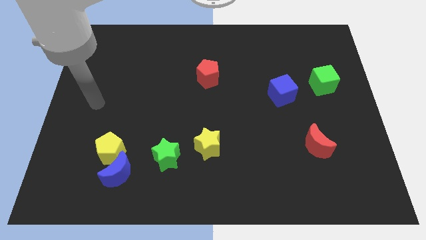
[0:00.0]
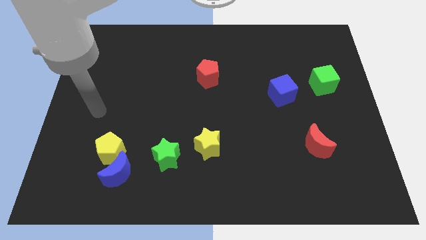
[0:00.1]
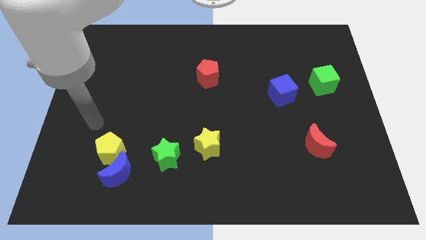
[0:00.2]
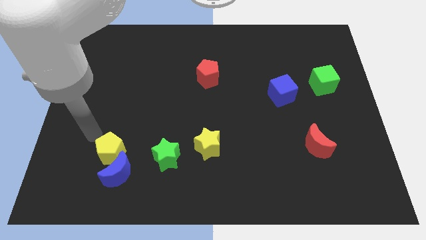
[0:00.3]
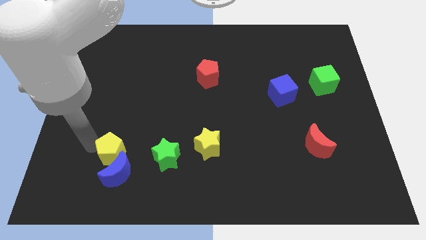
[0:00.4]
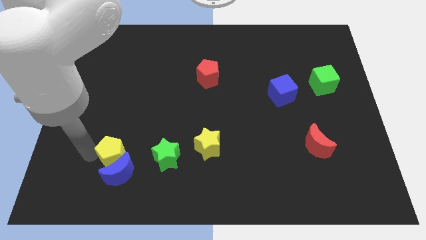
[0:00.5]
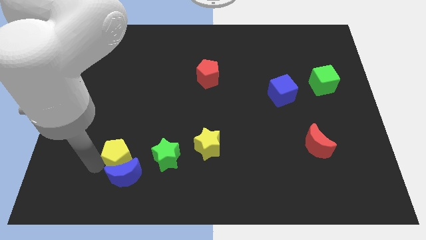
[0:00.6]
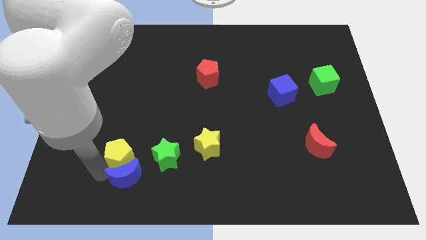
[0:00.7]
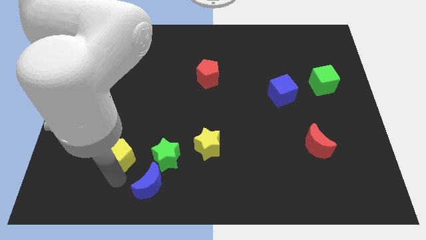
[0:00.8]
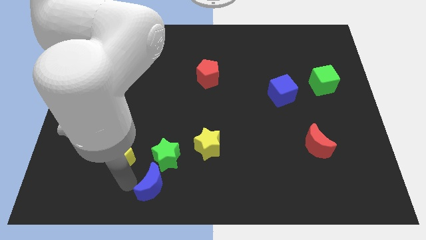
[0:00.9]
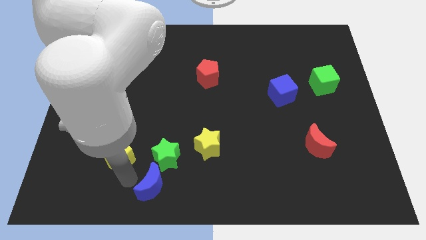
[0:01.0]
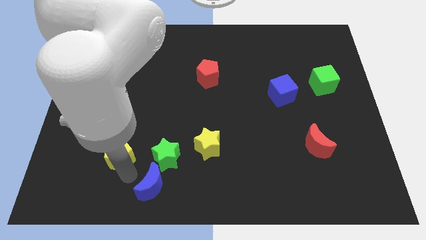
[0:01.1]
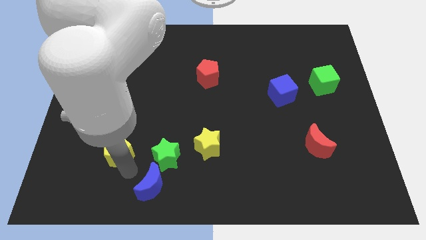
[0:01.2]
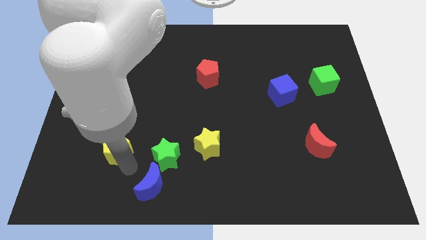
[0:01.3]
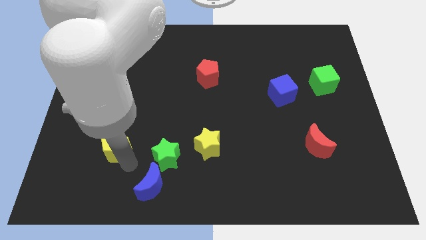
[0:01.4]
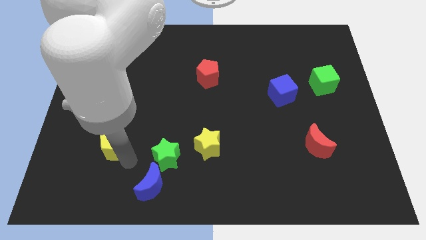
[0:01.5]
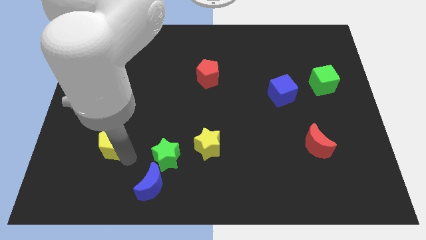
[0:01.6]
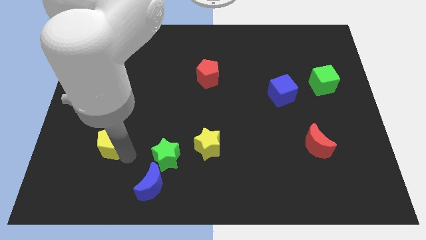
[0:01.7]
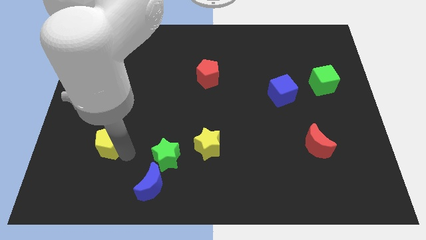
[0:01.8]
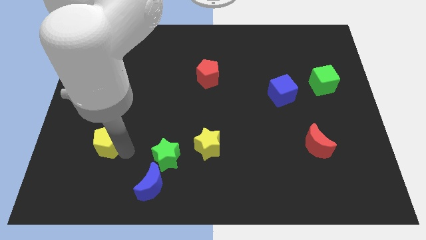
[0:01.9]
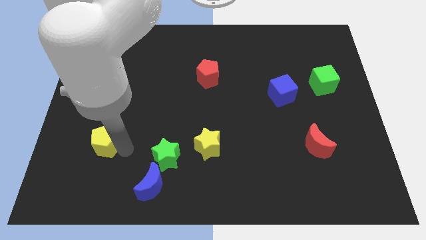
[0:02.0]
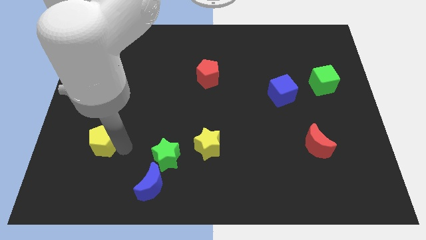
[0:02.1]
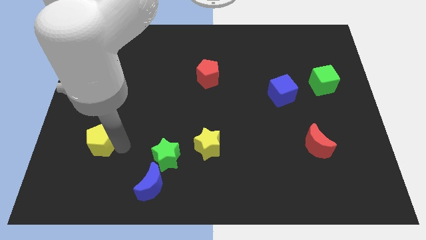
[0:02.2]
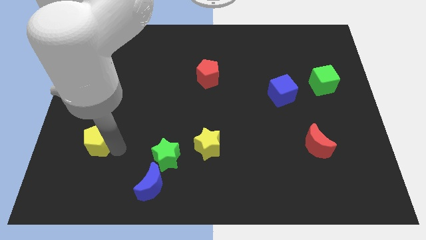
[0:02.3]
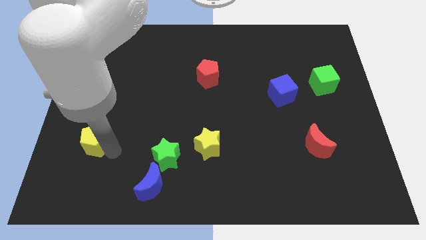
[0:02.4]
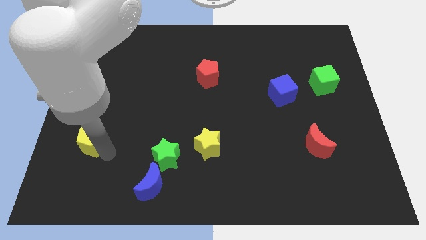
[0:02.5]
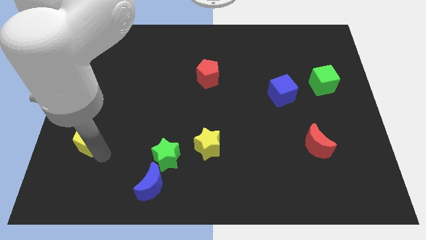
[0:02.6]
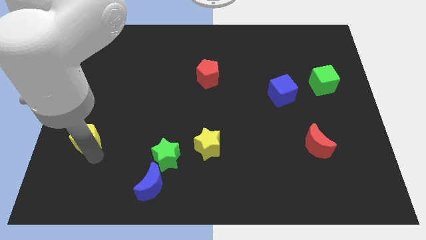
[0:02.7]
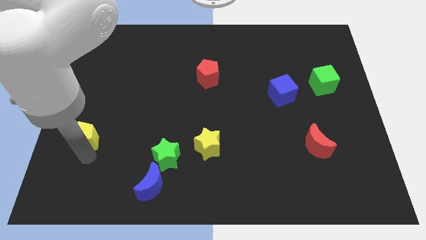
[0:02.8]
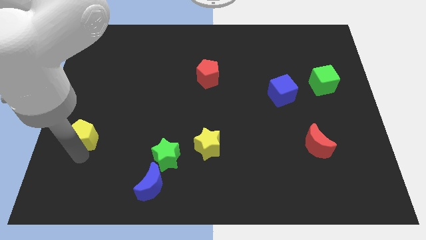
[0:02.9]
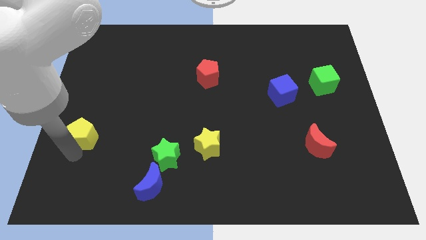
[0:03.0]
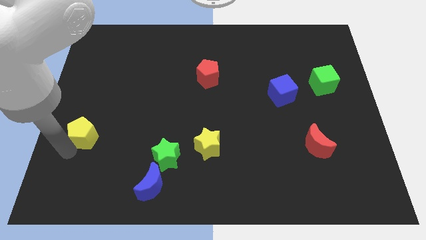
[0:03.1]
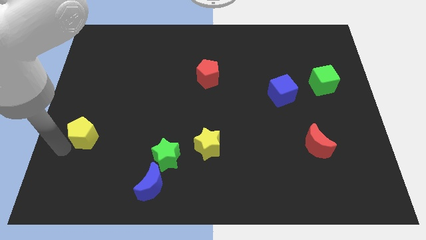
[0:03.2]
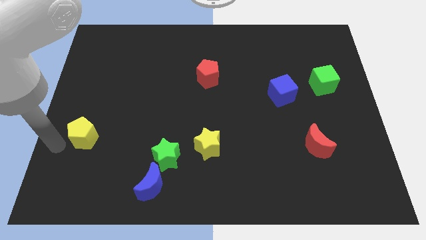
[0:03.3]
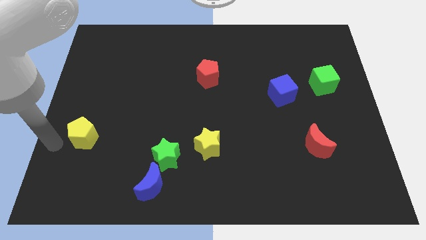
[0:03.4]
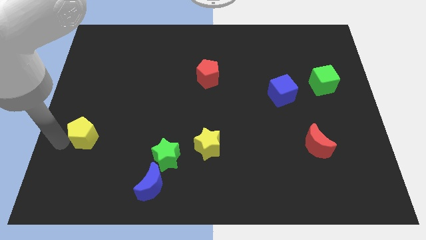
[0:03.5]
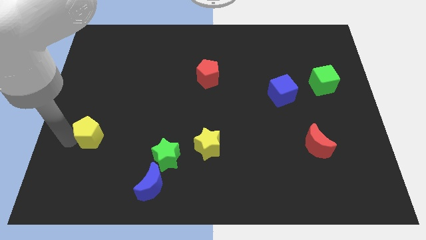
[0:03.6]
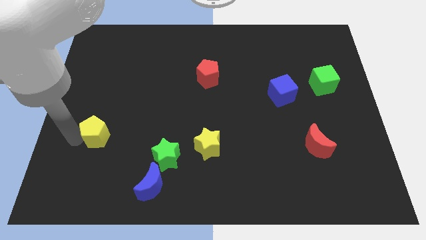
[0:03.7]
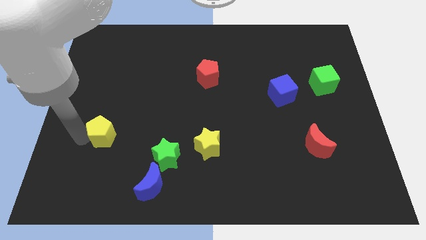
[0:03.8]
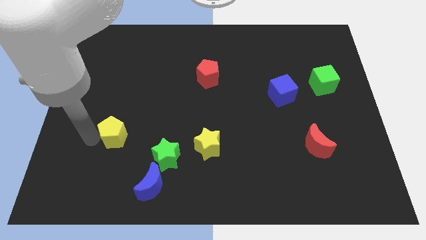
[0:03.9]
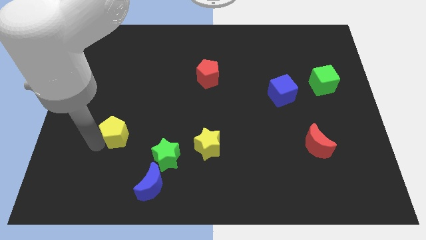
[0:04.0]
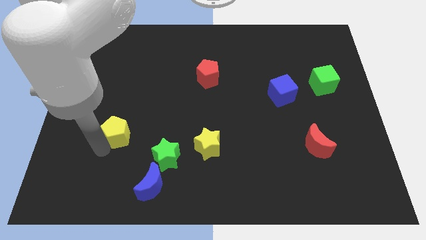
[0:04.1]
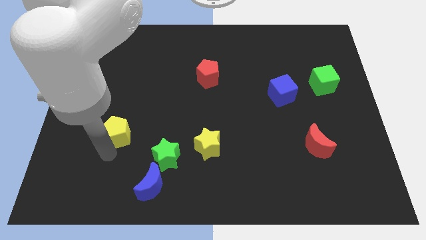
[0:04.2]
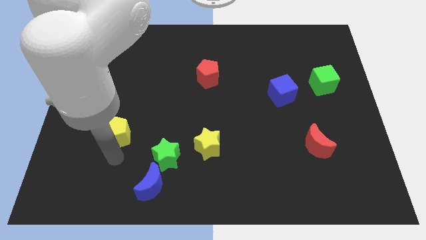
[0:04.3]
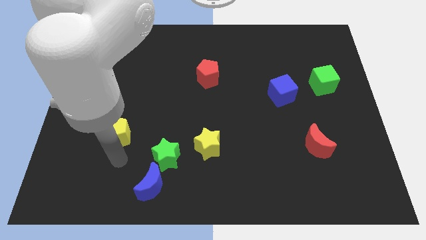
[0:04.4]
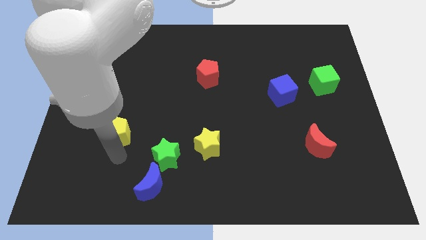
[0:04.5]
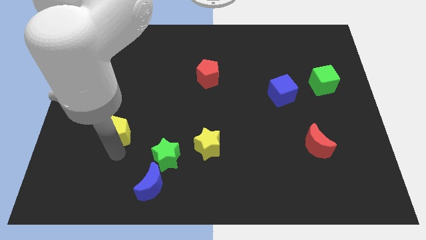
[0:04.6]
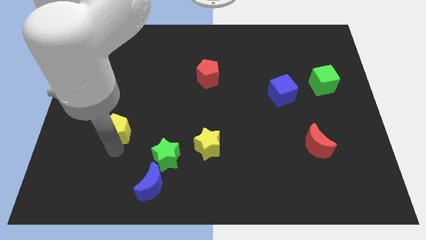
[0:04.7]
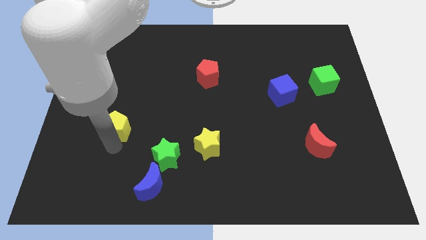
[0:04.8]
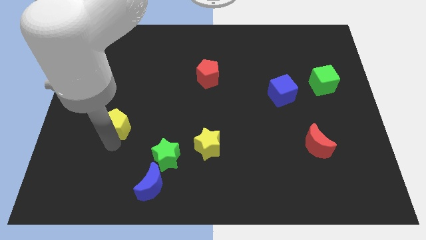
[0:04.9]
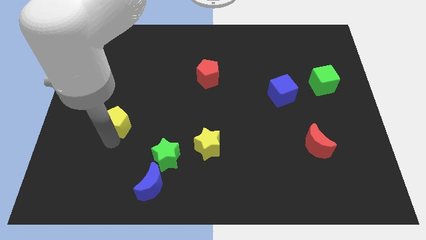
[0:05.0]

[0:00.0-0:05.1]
slightly push the yellow pentagon up

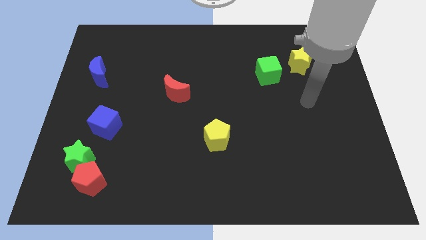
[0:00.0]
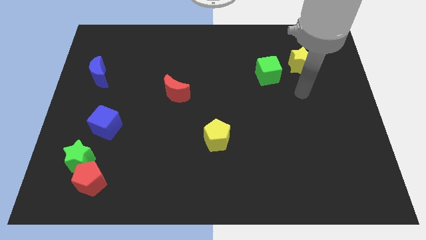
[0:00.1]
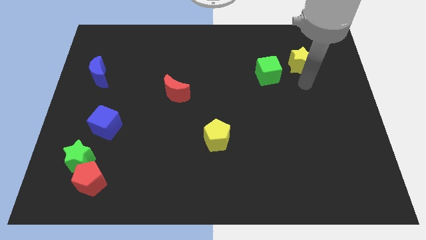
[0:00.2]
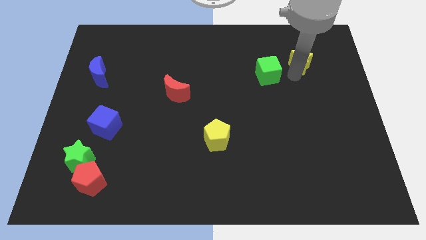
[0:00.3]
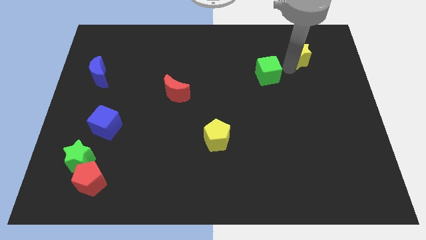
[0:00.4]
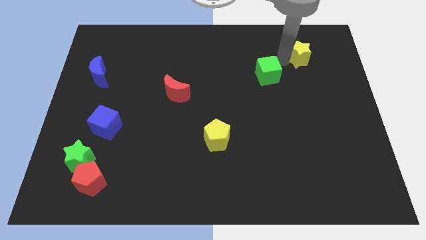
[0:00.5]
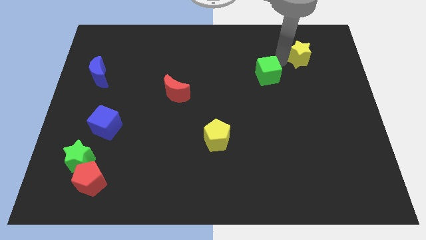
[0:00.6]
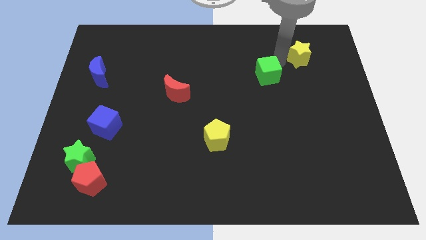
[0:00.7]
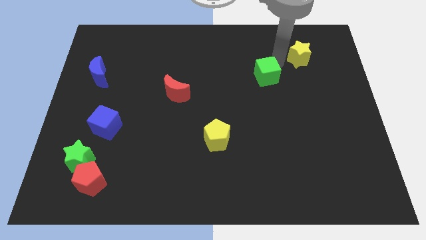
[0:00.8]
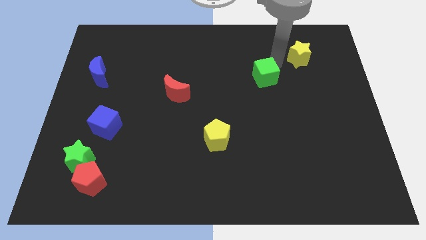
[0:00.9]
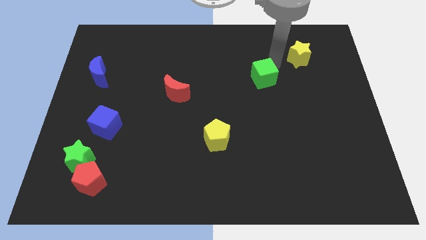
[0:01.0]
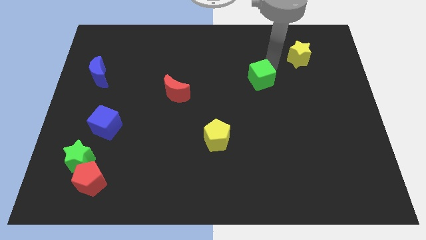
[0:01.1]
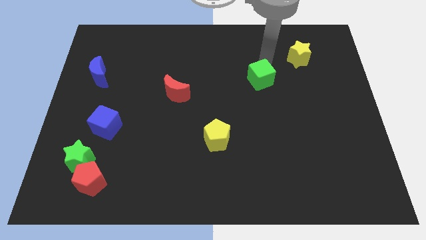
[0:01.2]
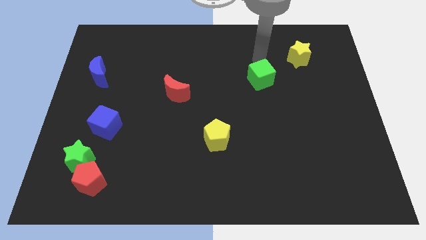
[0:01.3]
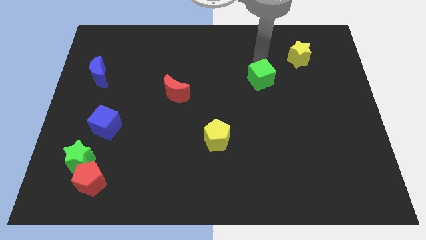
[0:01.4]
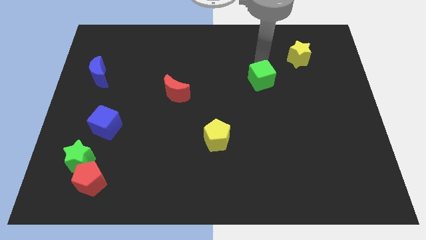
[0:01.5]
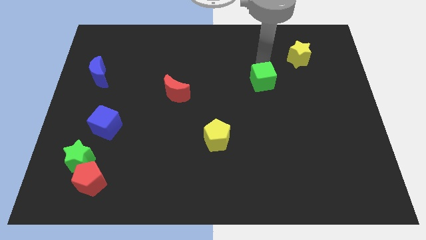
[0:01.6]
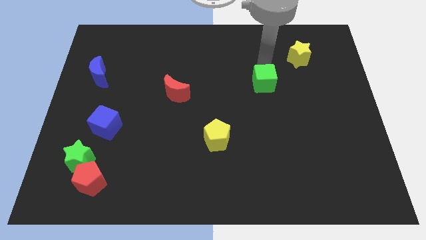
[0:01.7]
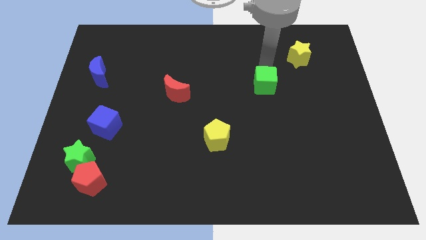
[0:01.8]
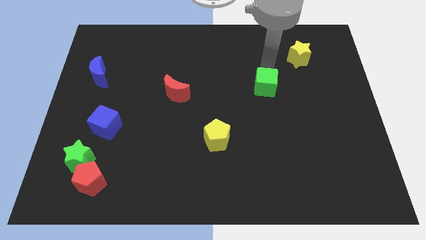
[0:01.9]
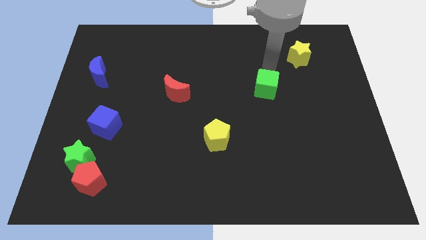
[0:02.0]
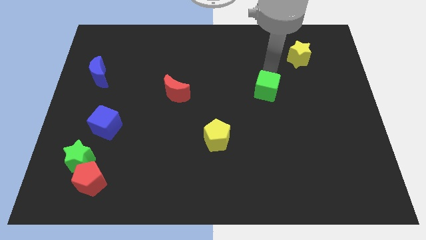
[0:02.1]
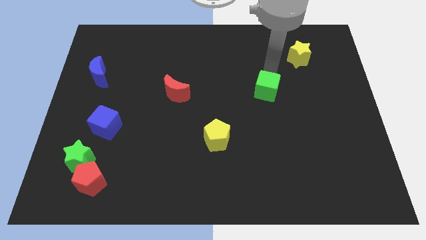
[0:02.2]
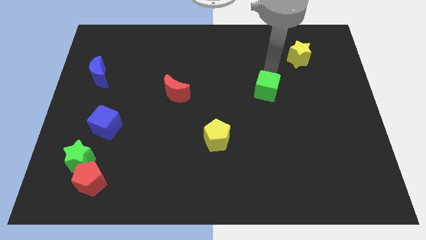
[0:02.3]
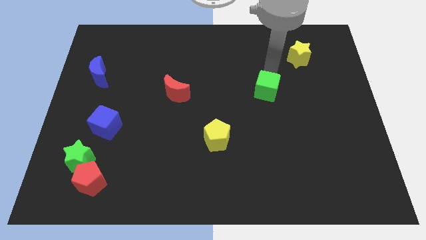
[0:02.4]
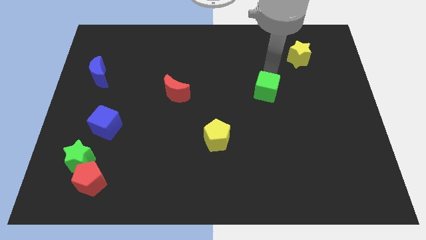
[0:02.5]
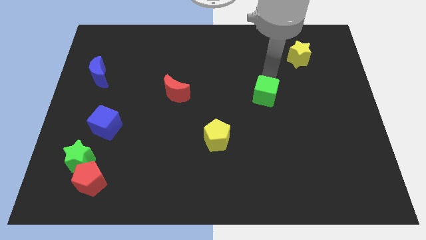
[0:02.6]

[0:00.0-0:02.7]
push the green cube down a little

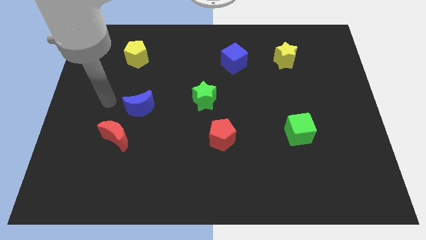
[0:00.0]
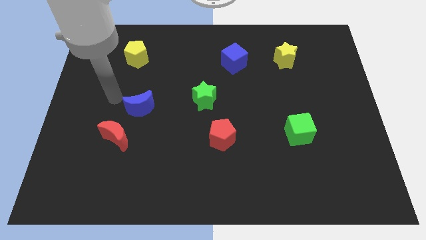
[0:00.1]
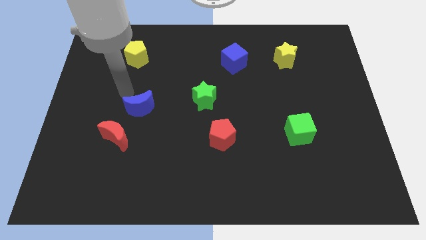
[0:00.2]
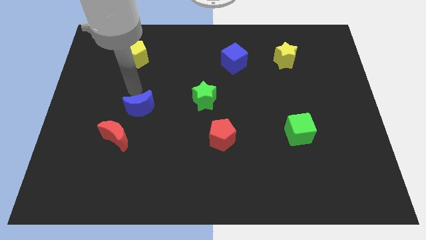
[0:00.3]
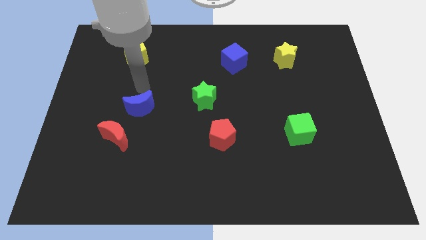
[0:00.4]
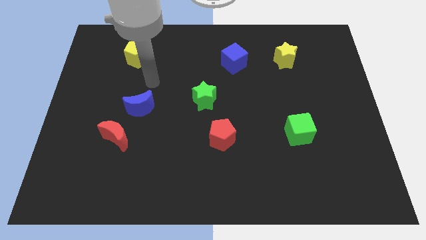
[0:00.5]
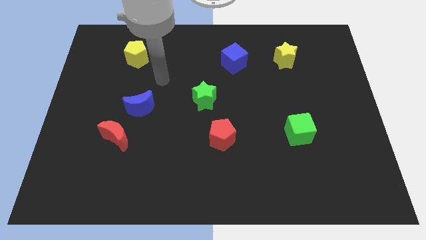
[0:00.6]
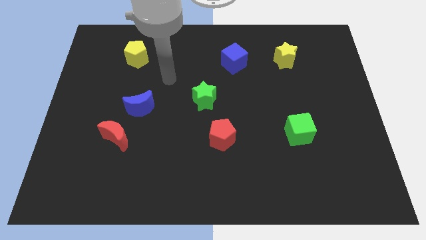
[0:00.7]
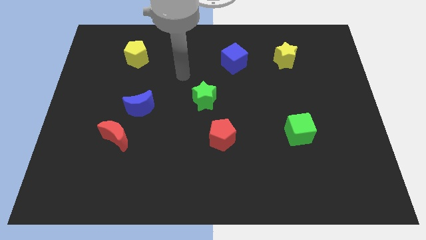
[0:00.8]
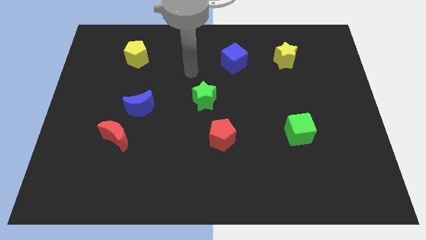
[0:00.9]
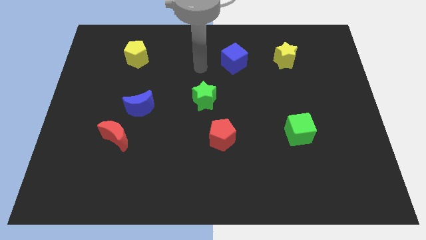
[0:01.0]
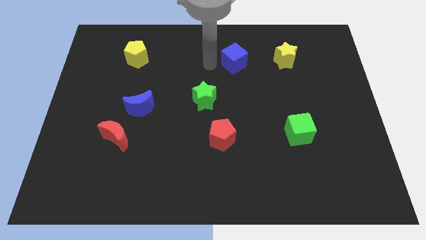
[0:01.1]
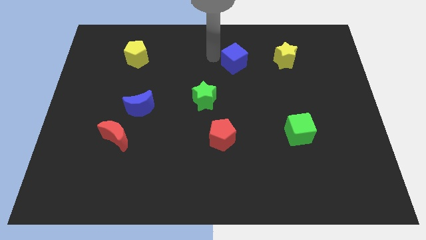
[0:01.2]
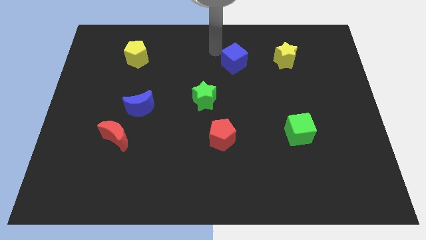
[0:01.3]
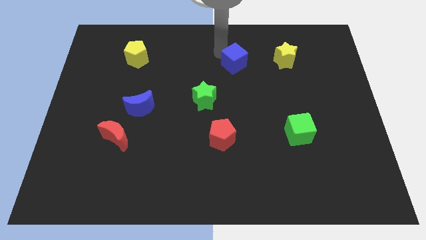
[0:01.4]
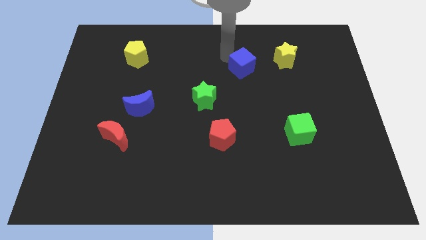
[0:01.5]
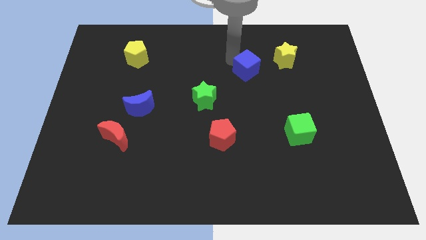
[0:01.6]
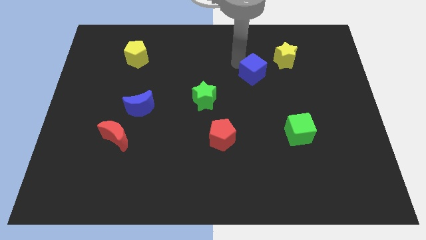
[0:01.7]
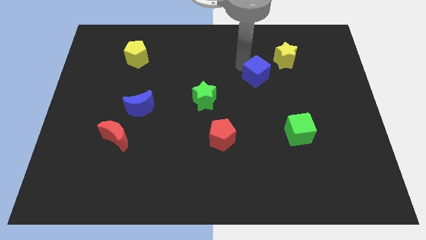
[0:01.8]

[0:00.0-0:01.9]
slide the blue cube slightly downwards and to the right
